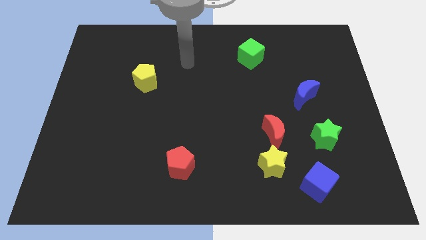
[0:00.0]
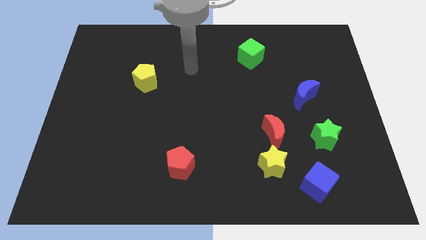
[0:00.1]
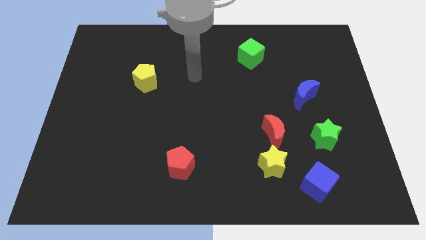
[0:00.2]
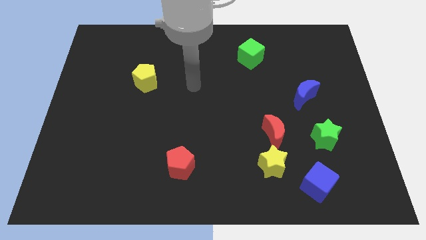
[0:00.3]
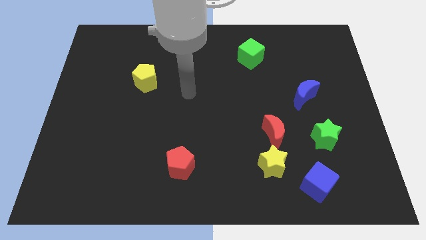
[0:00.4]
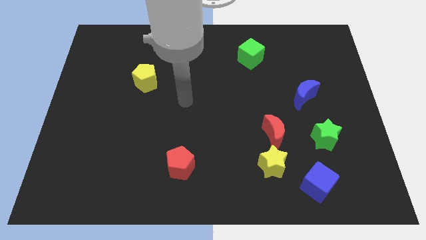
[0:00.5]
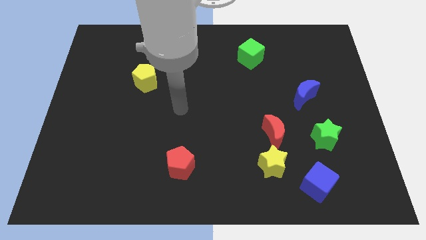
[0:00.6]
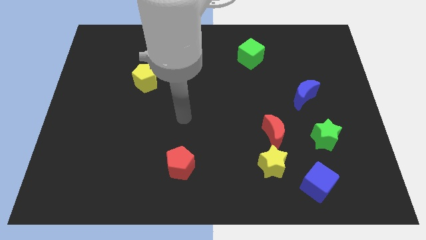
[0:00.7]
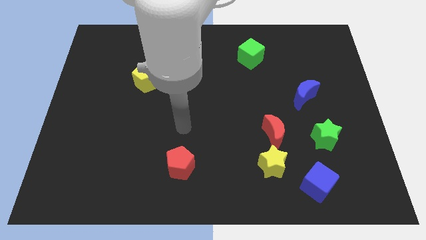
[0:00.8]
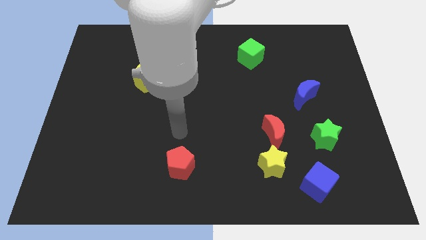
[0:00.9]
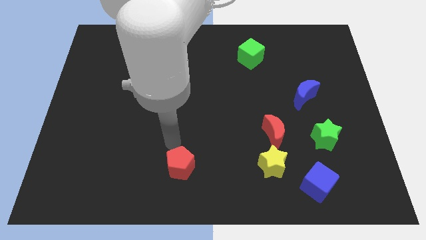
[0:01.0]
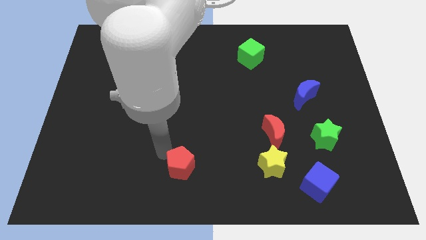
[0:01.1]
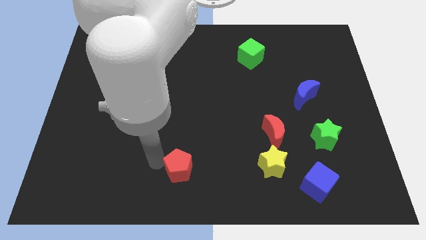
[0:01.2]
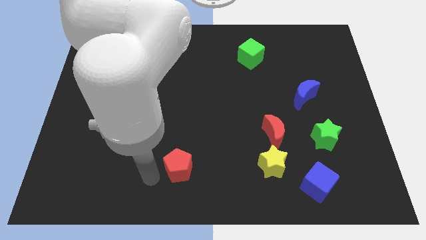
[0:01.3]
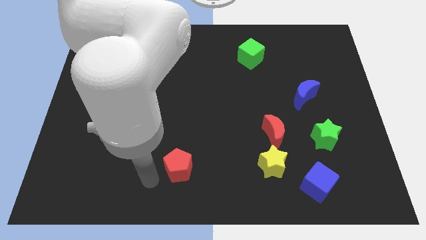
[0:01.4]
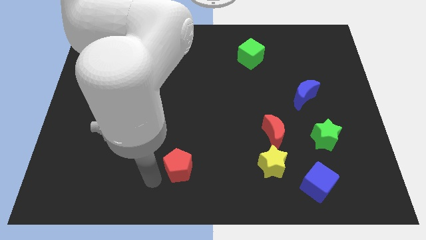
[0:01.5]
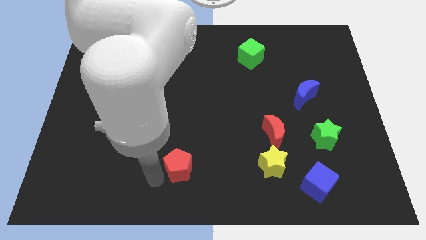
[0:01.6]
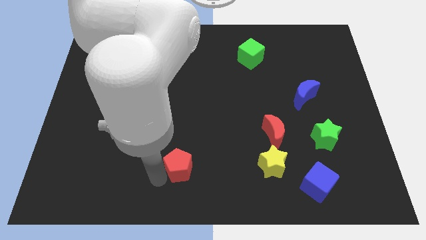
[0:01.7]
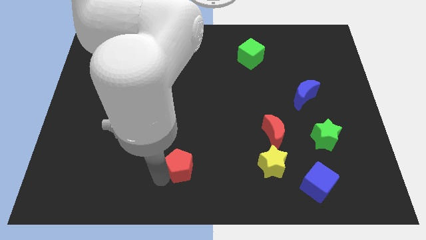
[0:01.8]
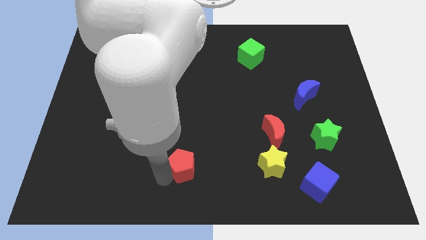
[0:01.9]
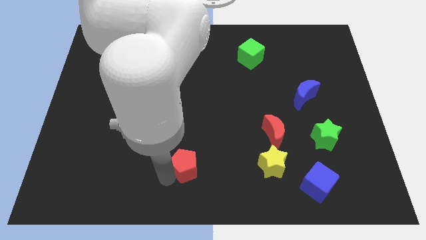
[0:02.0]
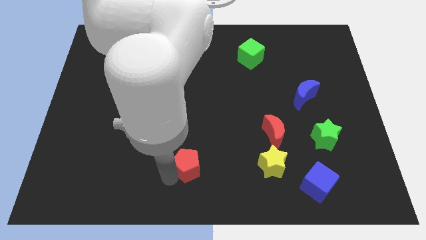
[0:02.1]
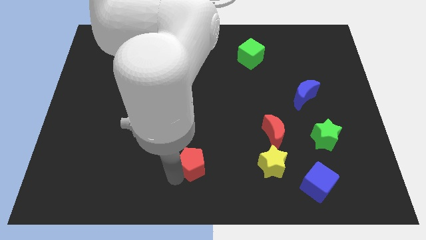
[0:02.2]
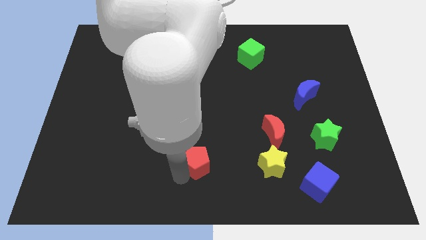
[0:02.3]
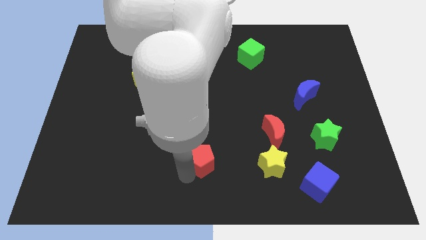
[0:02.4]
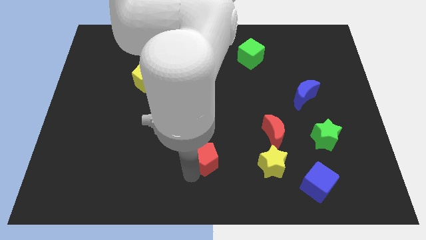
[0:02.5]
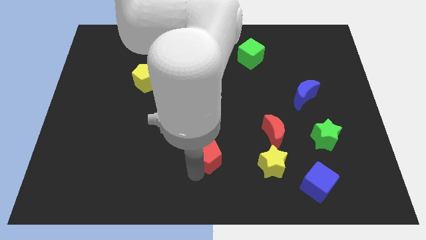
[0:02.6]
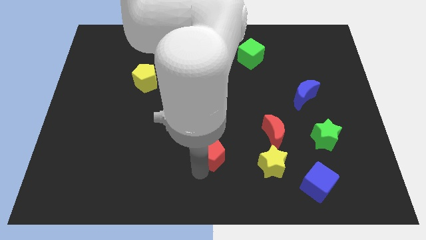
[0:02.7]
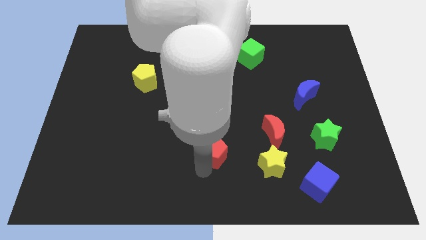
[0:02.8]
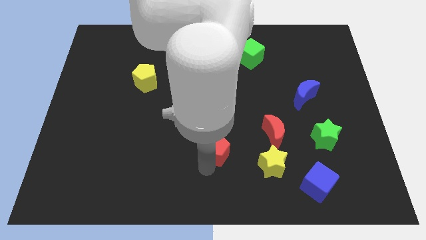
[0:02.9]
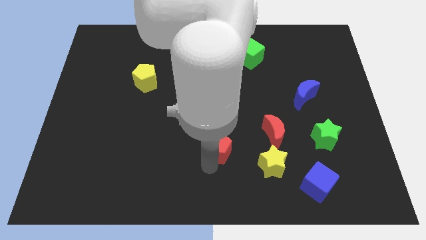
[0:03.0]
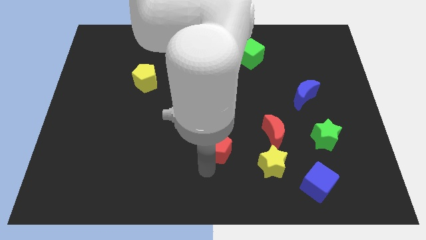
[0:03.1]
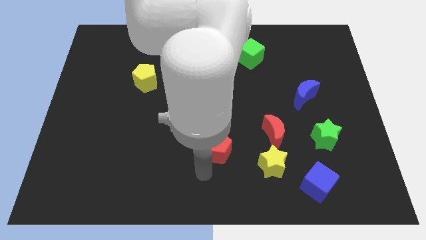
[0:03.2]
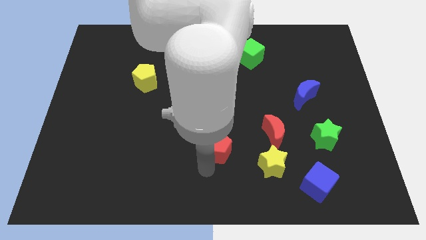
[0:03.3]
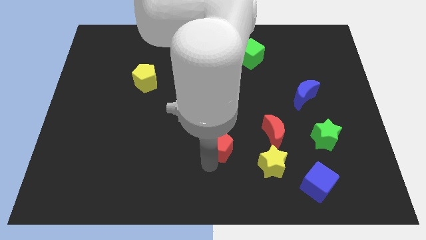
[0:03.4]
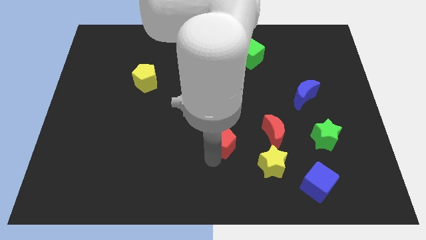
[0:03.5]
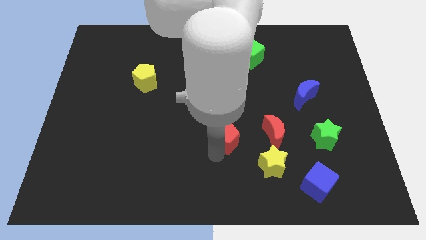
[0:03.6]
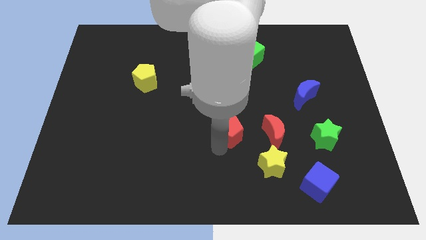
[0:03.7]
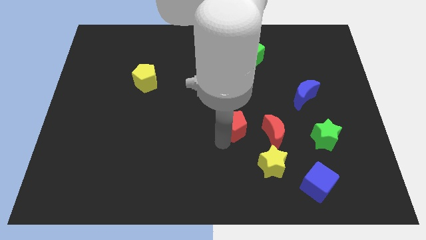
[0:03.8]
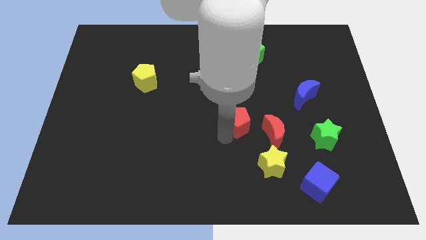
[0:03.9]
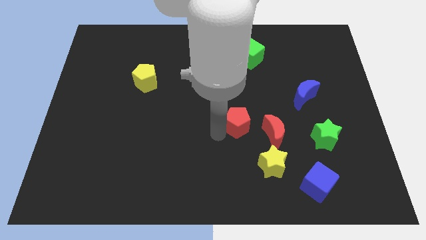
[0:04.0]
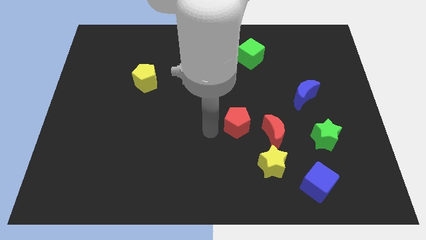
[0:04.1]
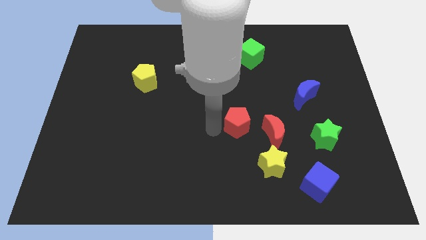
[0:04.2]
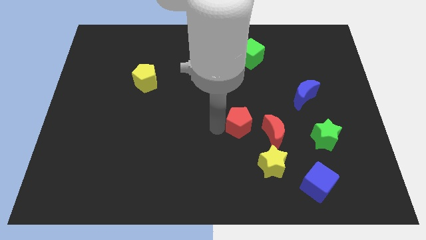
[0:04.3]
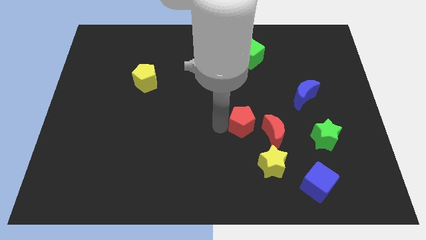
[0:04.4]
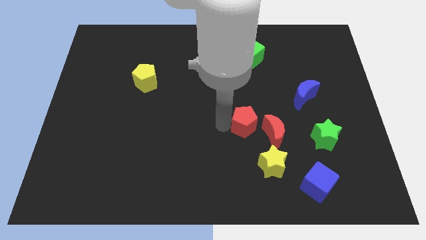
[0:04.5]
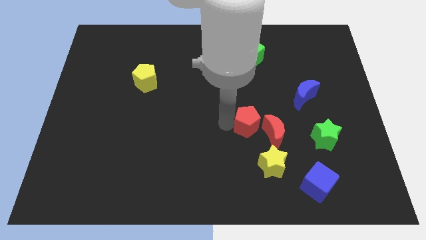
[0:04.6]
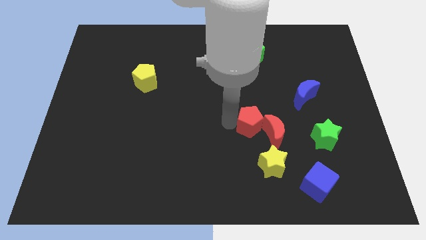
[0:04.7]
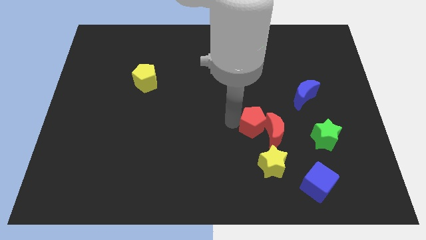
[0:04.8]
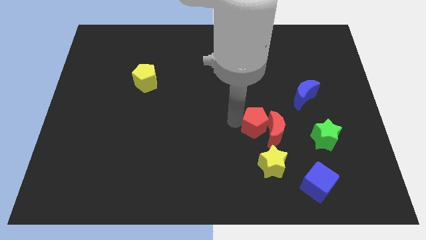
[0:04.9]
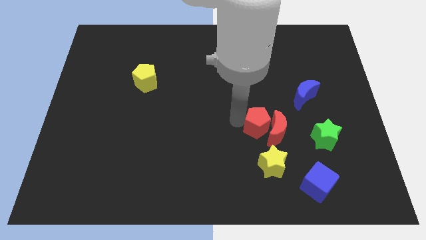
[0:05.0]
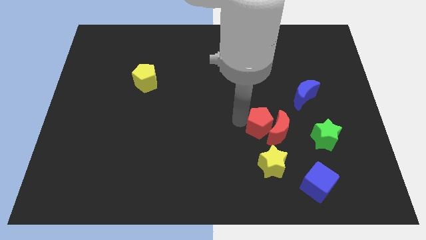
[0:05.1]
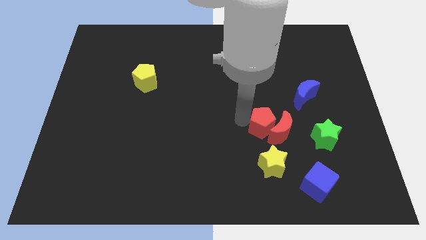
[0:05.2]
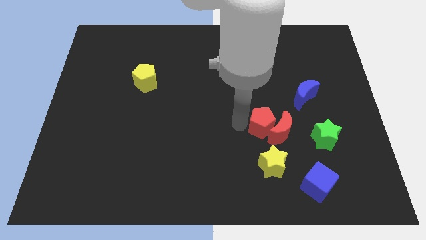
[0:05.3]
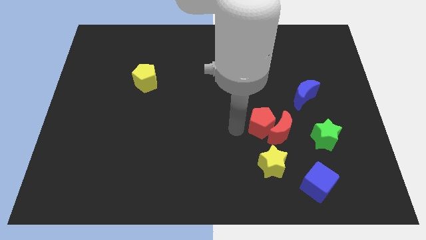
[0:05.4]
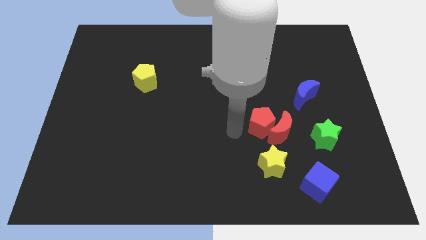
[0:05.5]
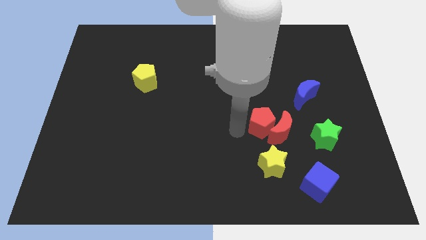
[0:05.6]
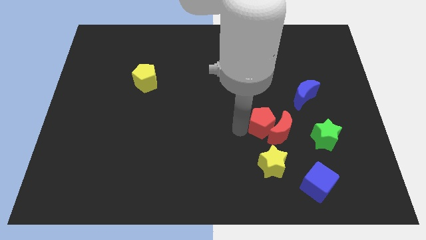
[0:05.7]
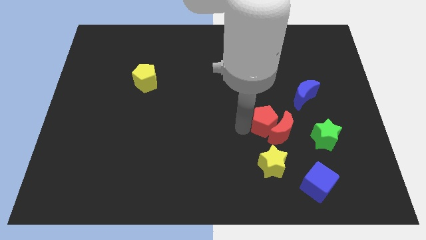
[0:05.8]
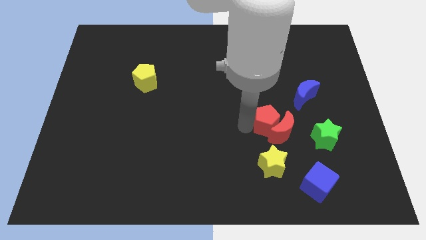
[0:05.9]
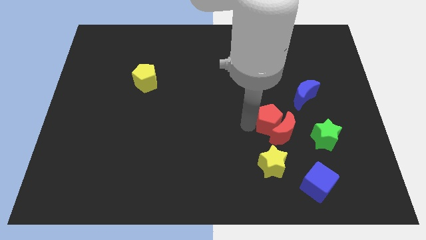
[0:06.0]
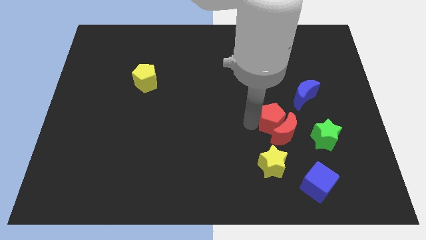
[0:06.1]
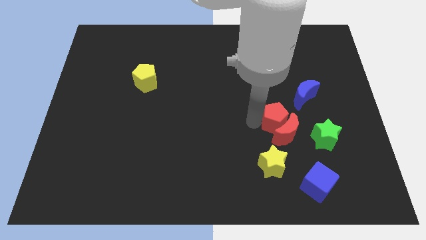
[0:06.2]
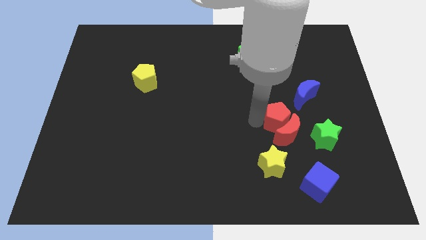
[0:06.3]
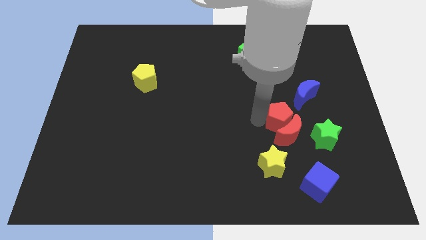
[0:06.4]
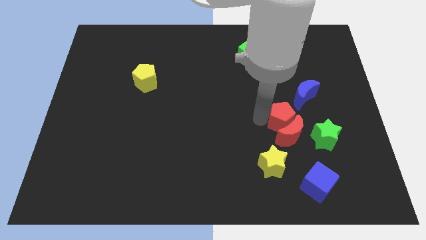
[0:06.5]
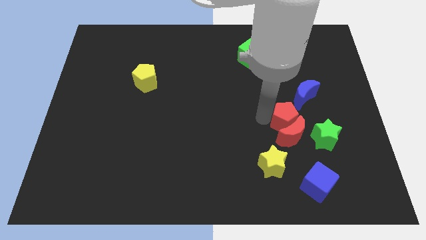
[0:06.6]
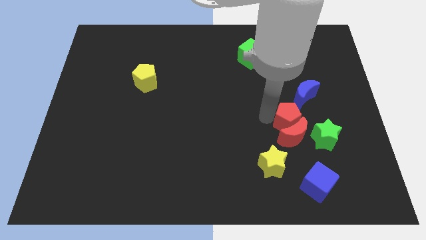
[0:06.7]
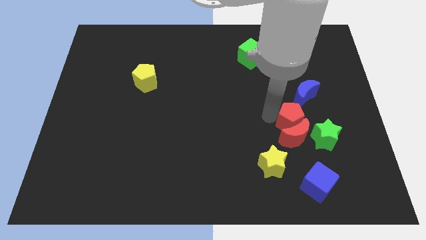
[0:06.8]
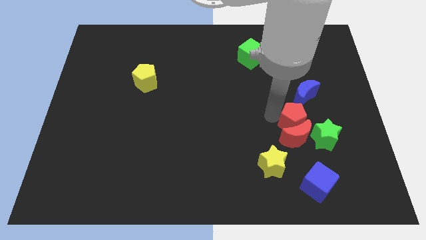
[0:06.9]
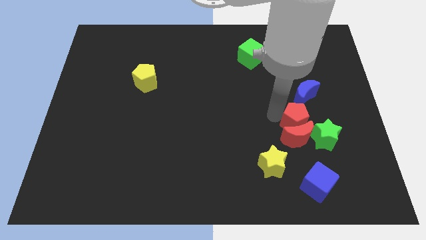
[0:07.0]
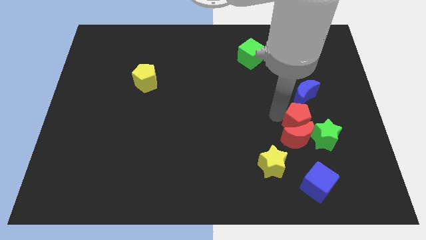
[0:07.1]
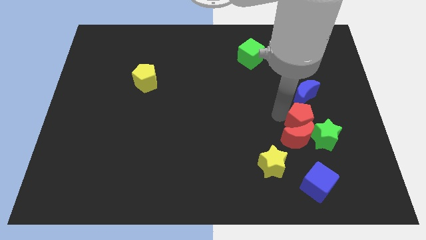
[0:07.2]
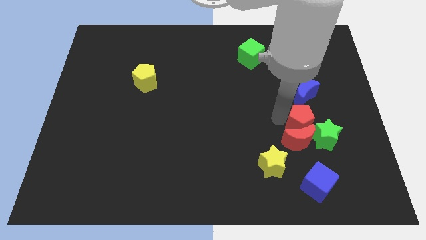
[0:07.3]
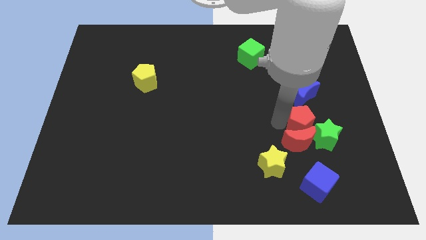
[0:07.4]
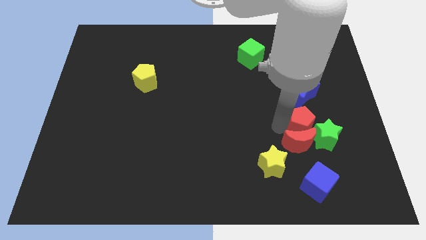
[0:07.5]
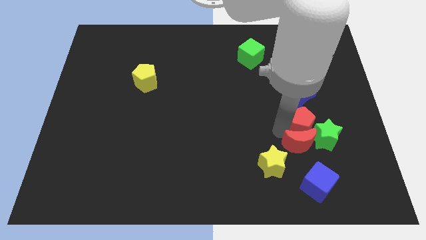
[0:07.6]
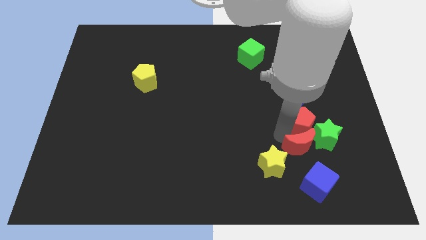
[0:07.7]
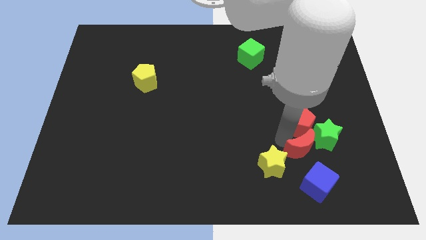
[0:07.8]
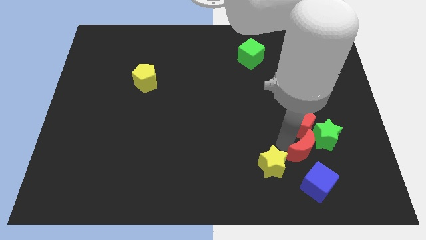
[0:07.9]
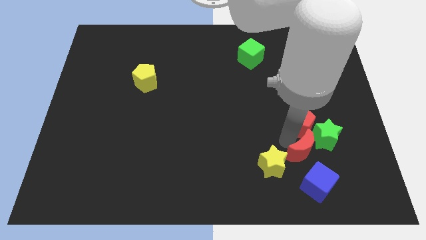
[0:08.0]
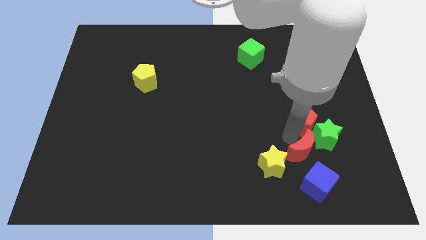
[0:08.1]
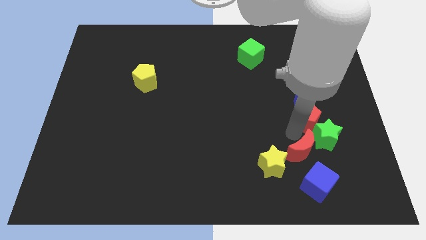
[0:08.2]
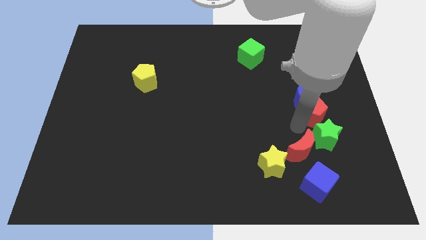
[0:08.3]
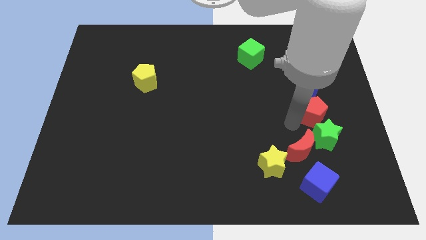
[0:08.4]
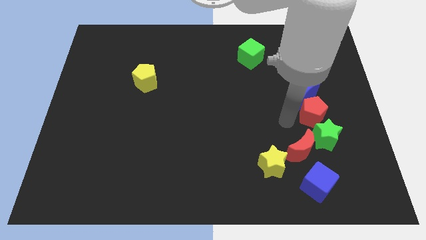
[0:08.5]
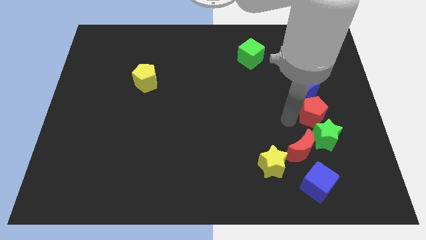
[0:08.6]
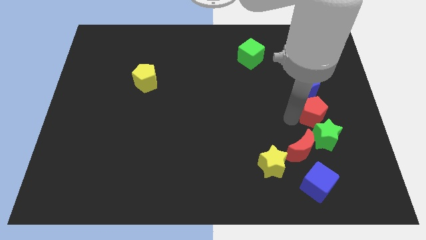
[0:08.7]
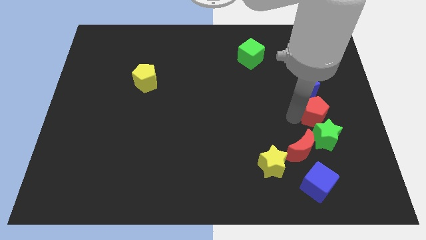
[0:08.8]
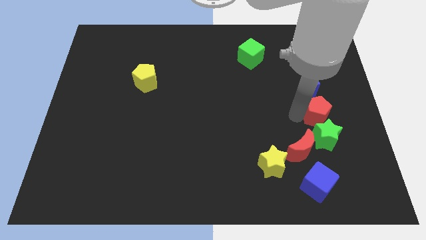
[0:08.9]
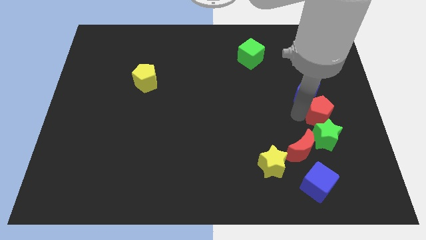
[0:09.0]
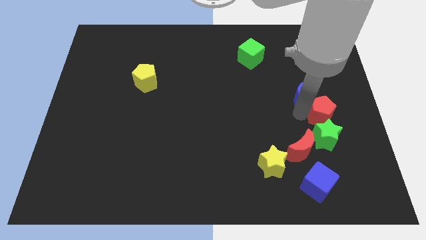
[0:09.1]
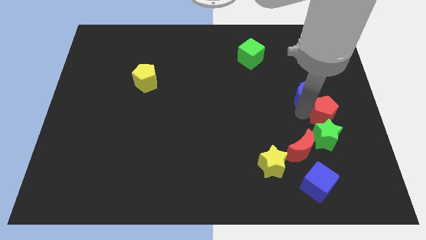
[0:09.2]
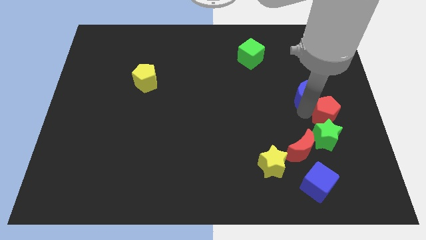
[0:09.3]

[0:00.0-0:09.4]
slide the red pentagon to the right side of the board
